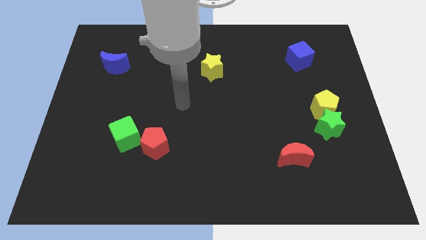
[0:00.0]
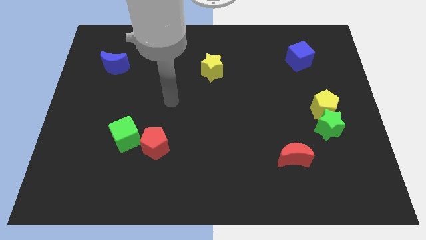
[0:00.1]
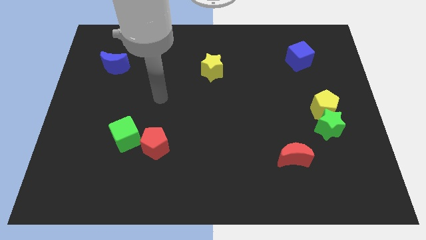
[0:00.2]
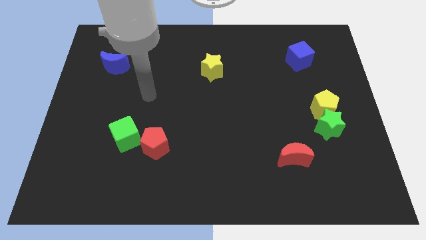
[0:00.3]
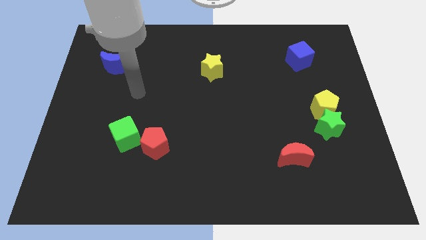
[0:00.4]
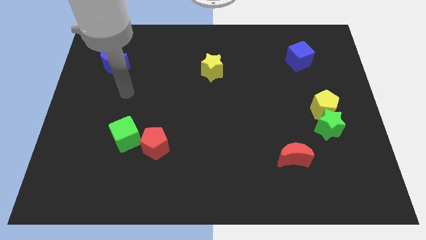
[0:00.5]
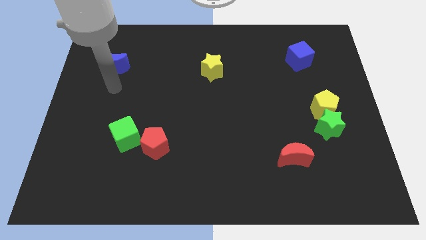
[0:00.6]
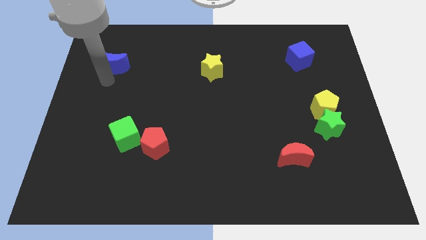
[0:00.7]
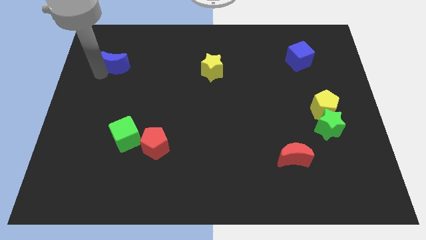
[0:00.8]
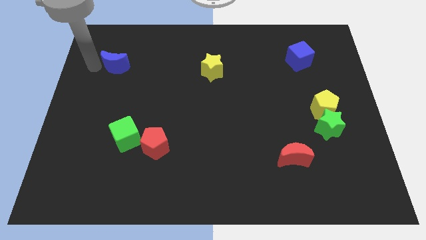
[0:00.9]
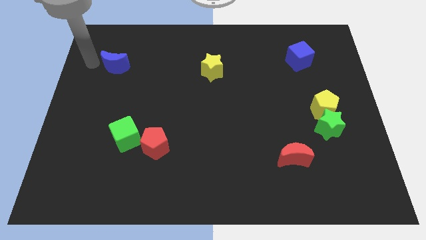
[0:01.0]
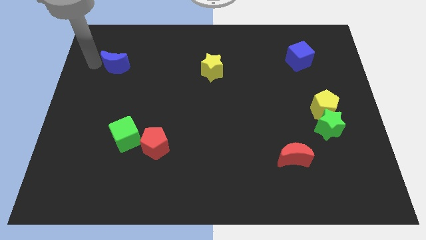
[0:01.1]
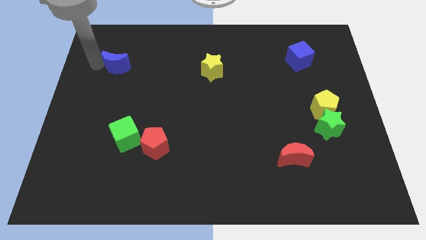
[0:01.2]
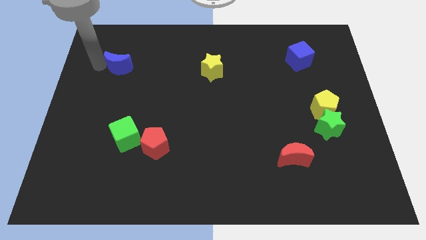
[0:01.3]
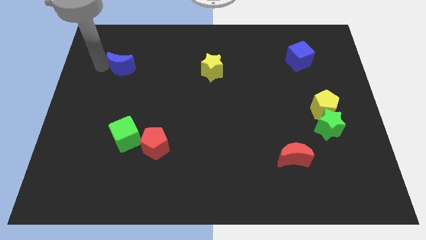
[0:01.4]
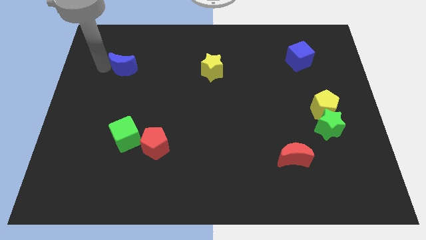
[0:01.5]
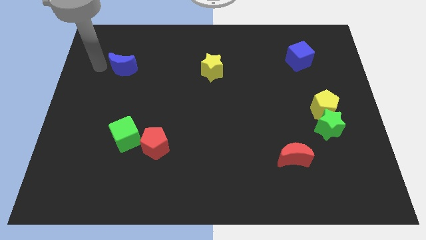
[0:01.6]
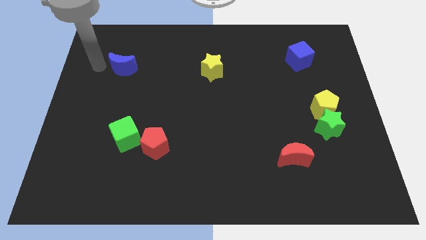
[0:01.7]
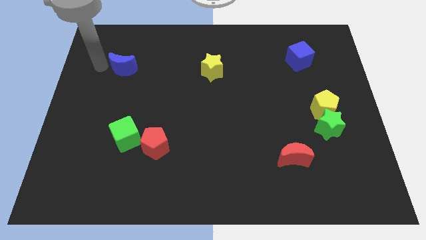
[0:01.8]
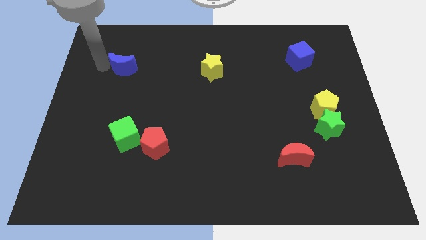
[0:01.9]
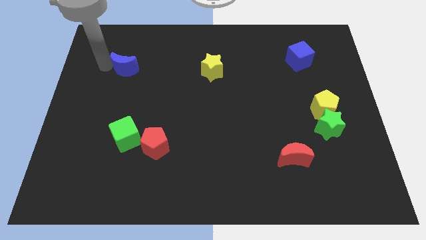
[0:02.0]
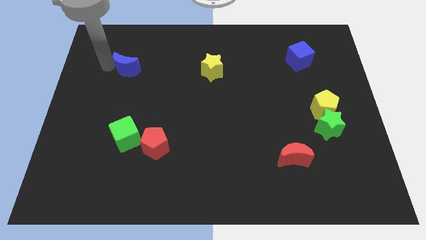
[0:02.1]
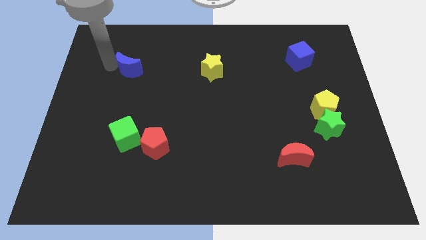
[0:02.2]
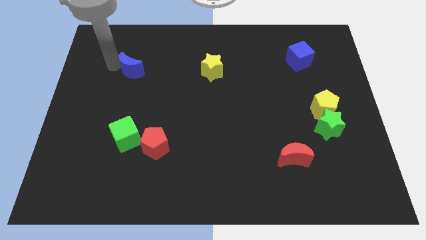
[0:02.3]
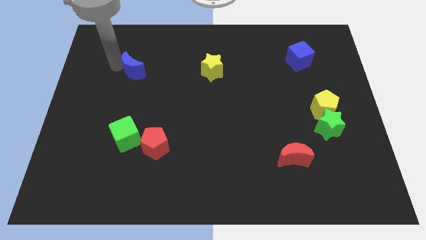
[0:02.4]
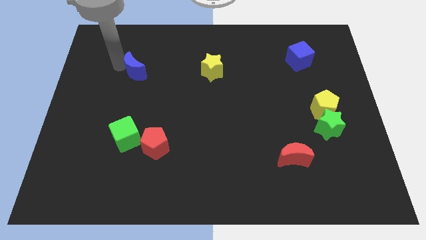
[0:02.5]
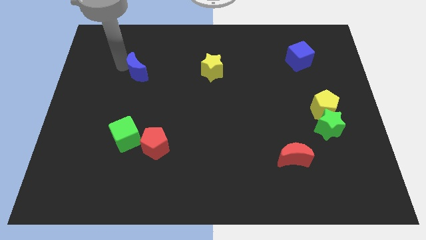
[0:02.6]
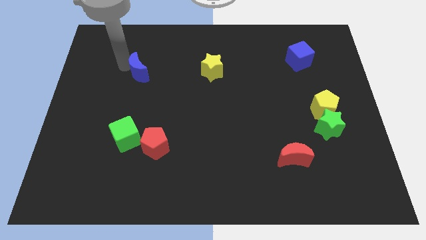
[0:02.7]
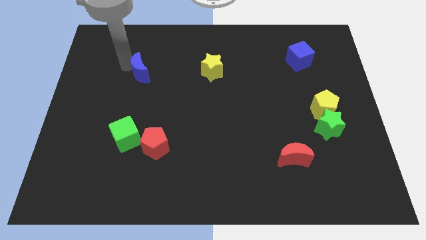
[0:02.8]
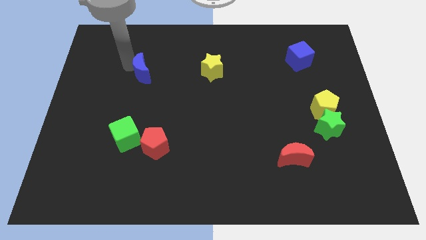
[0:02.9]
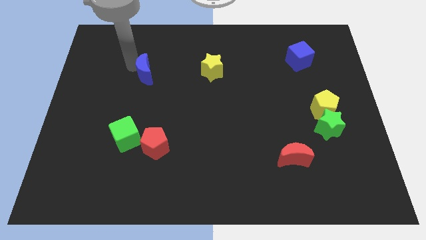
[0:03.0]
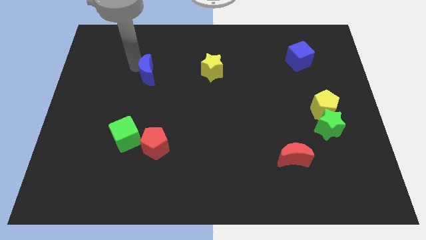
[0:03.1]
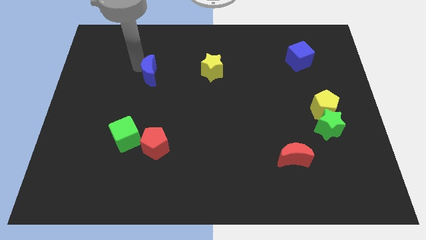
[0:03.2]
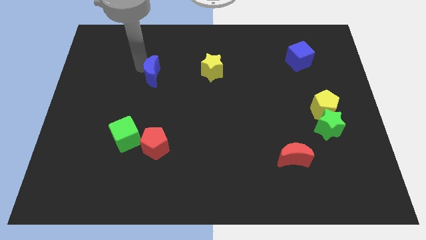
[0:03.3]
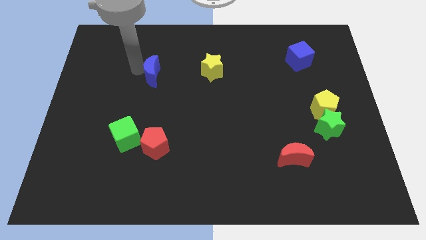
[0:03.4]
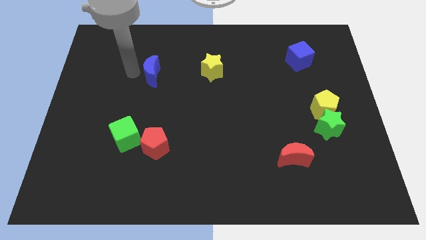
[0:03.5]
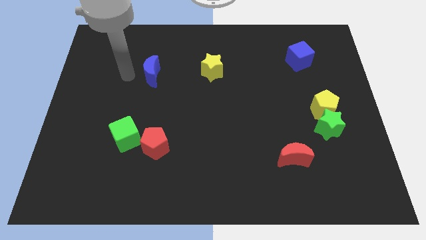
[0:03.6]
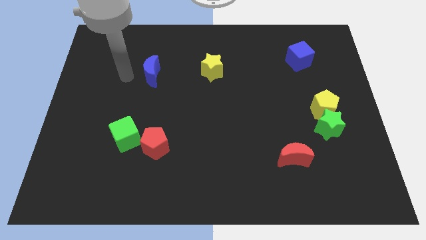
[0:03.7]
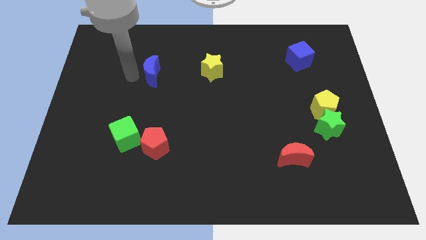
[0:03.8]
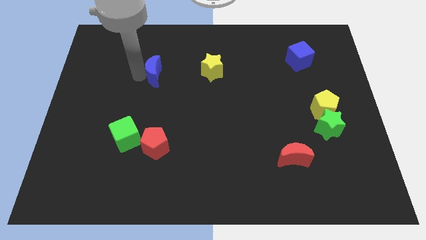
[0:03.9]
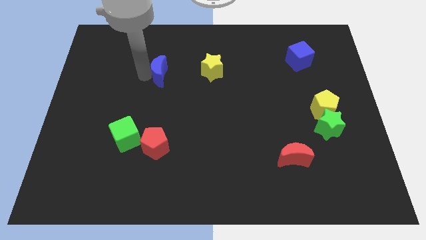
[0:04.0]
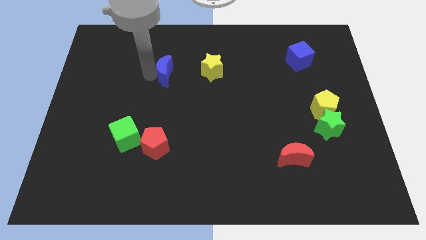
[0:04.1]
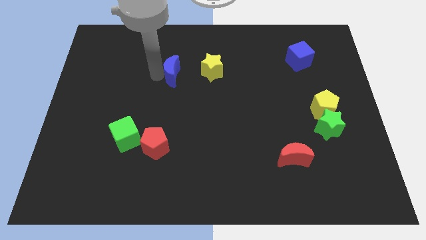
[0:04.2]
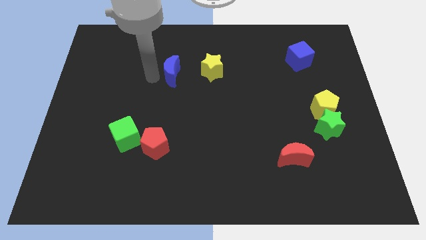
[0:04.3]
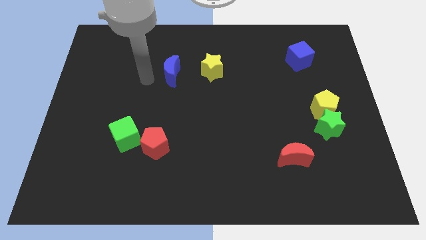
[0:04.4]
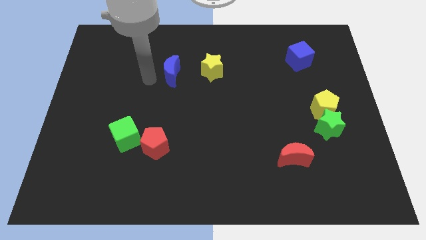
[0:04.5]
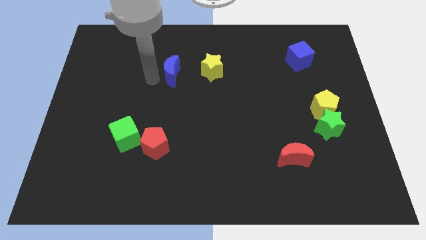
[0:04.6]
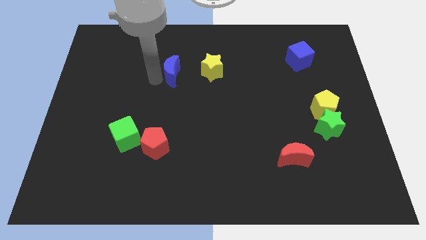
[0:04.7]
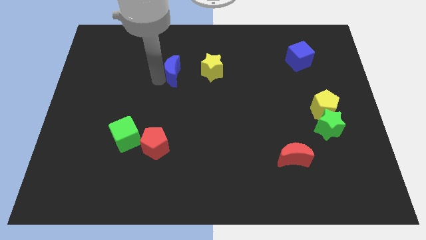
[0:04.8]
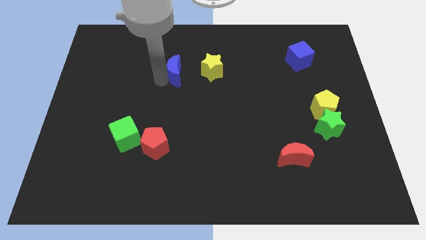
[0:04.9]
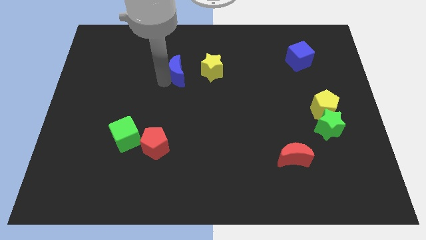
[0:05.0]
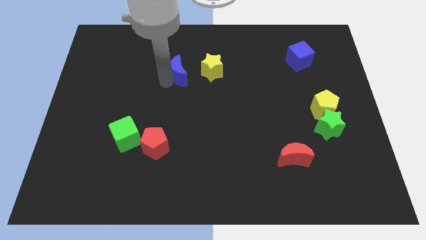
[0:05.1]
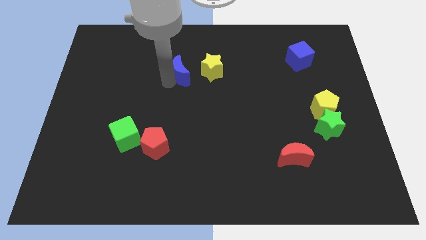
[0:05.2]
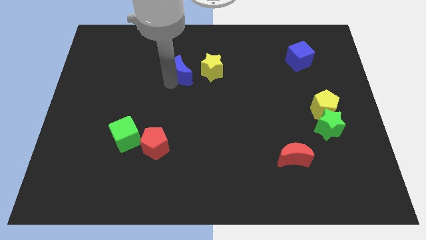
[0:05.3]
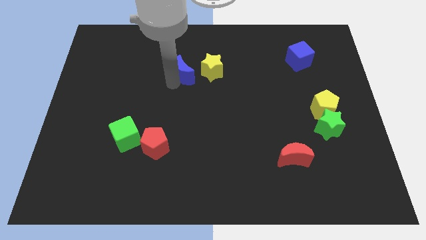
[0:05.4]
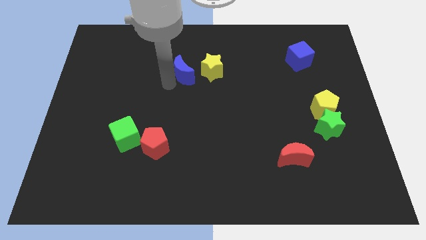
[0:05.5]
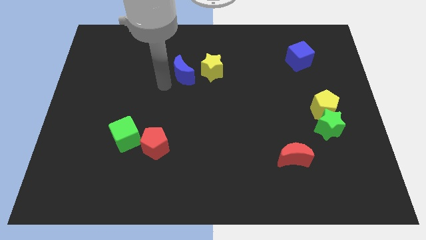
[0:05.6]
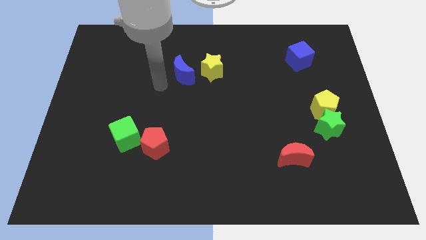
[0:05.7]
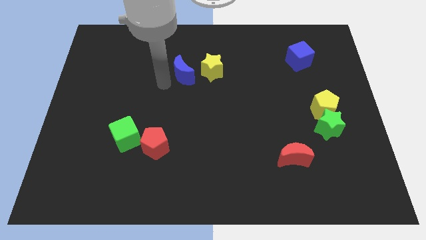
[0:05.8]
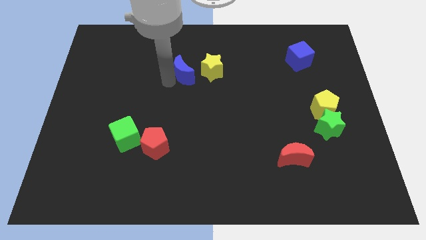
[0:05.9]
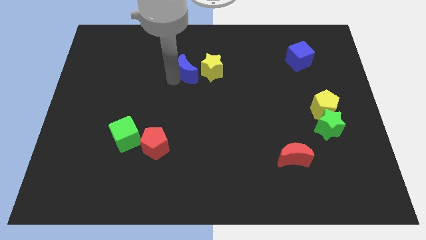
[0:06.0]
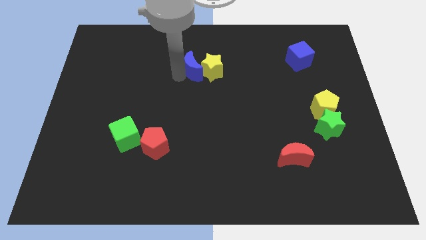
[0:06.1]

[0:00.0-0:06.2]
put the blue moon towards the yellow star

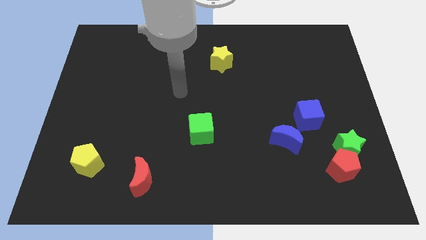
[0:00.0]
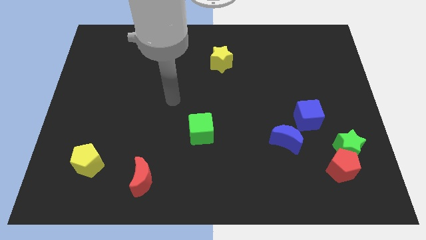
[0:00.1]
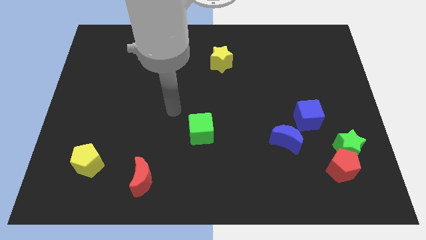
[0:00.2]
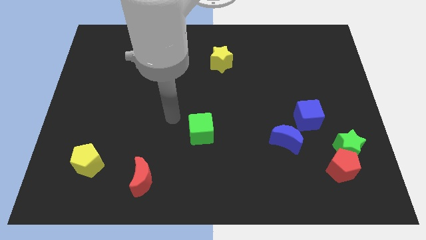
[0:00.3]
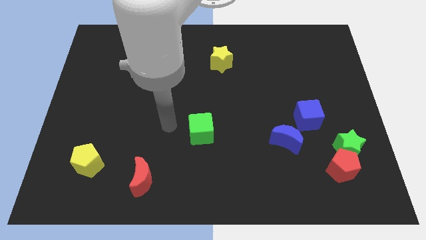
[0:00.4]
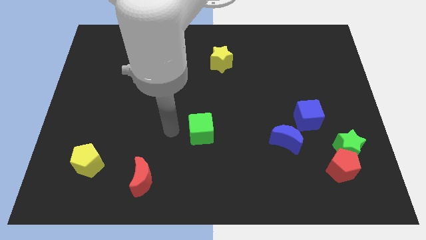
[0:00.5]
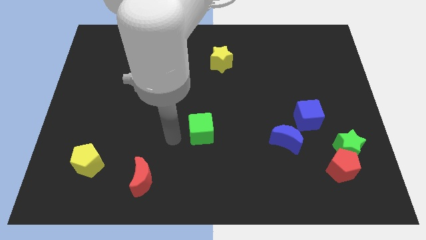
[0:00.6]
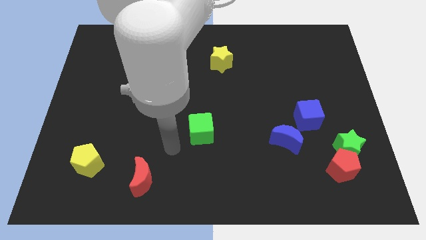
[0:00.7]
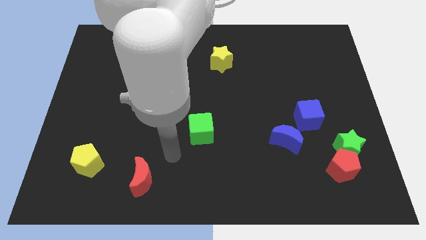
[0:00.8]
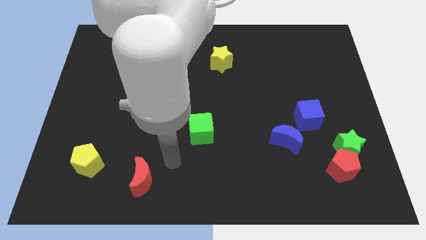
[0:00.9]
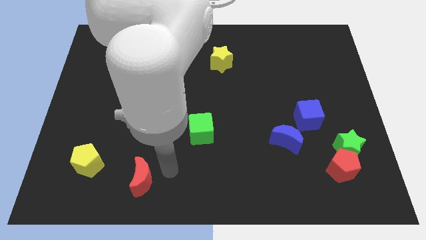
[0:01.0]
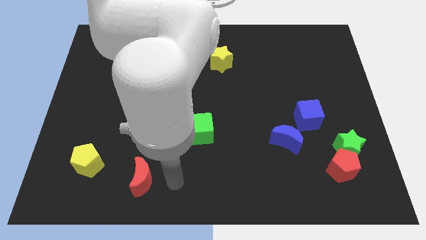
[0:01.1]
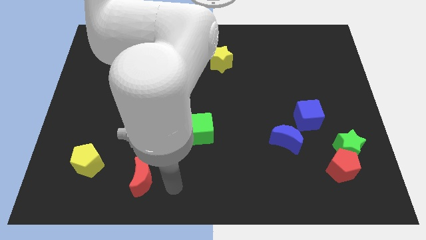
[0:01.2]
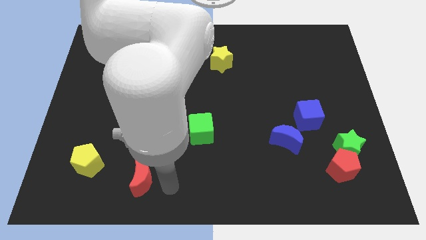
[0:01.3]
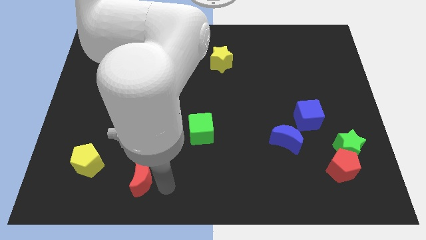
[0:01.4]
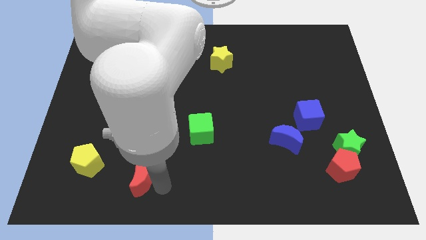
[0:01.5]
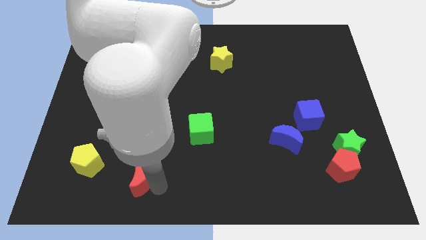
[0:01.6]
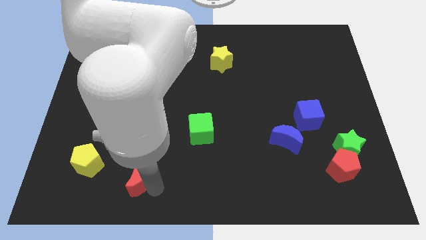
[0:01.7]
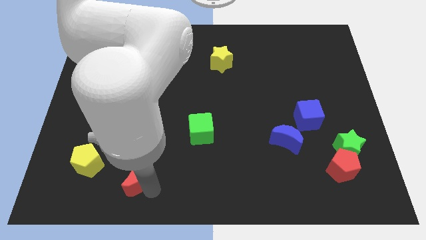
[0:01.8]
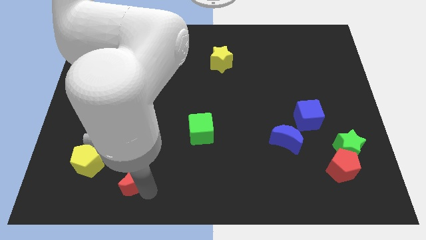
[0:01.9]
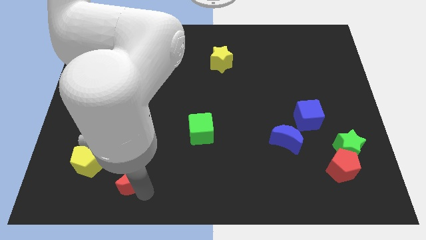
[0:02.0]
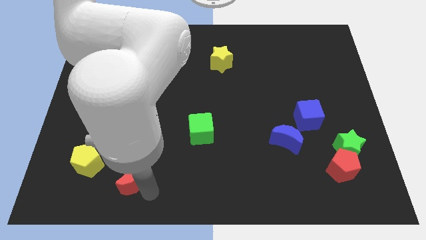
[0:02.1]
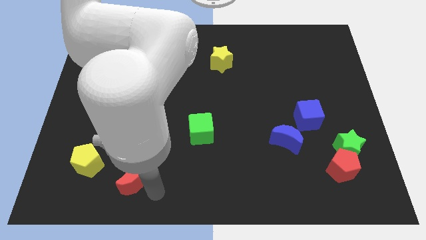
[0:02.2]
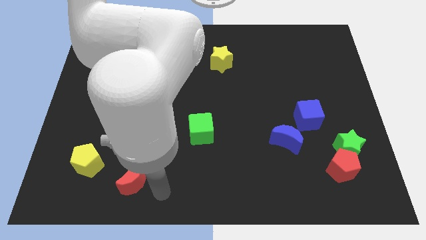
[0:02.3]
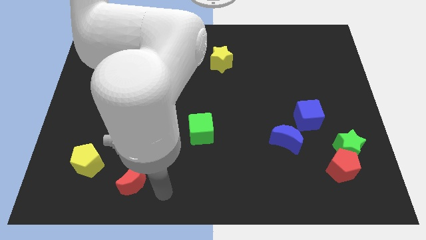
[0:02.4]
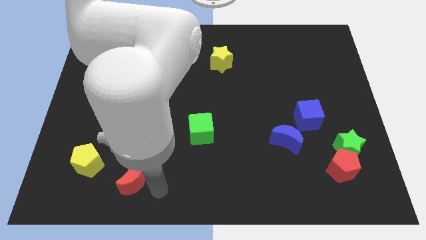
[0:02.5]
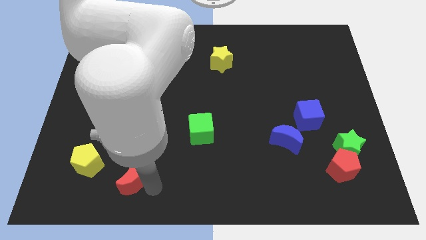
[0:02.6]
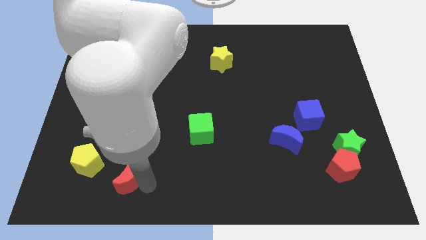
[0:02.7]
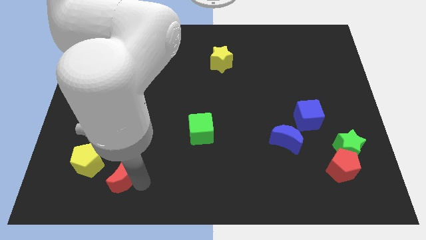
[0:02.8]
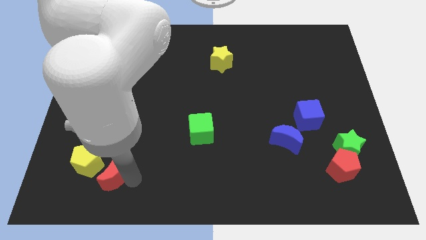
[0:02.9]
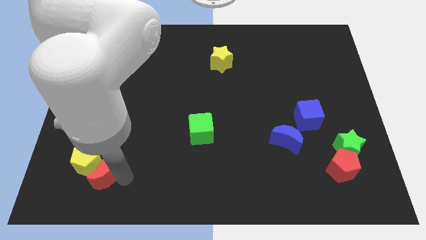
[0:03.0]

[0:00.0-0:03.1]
put the red moon to the yellow pentagon
